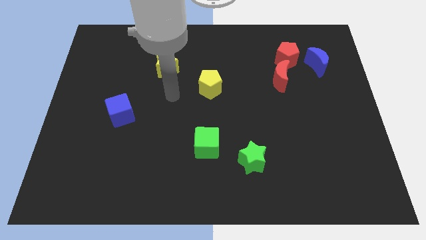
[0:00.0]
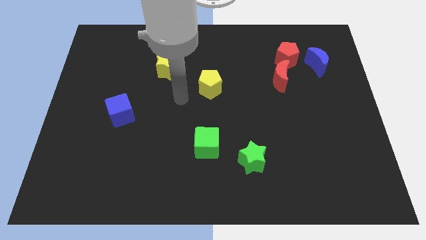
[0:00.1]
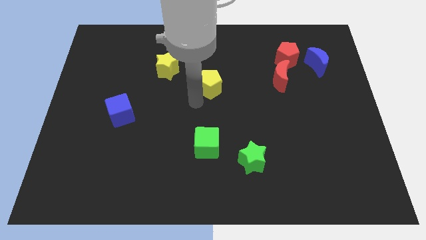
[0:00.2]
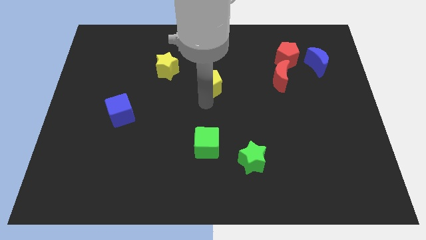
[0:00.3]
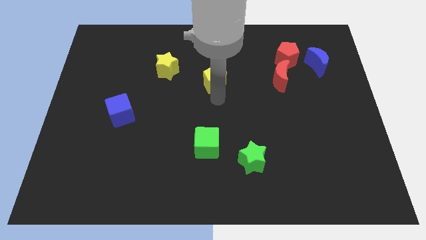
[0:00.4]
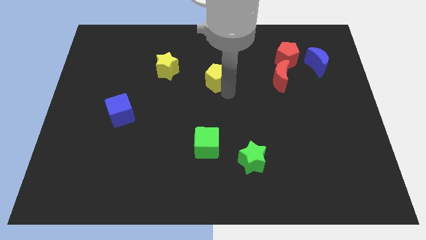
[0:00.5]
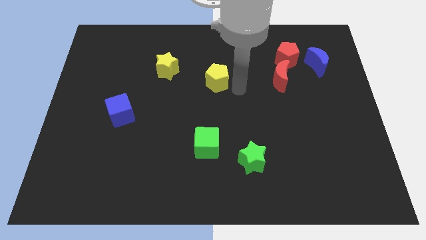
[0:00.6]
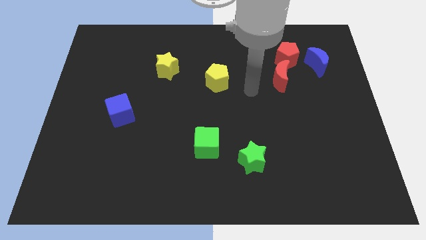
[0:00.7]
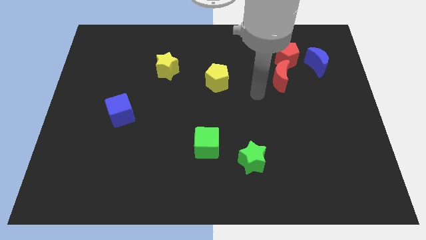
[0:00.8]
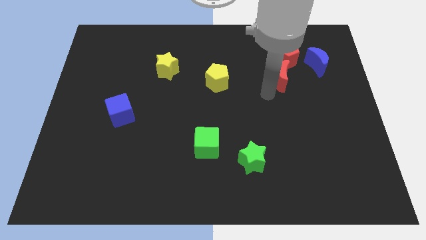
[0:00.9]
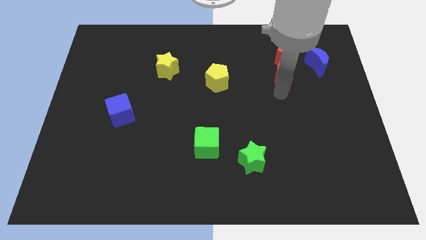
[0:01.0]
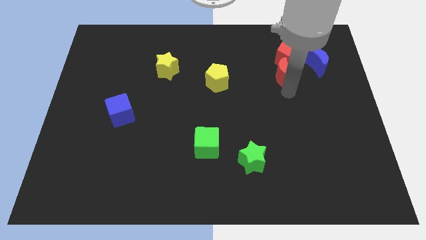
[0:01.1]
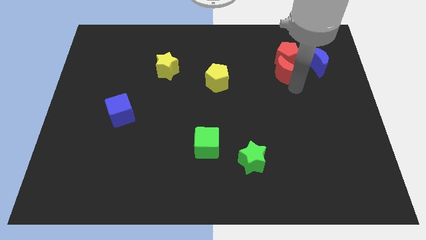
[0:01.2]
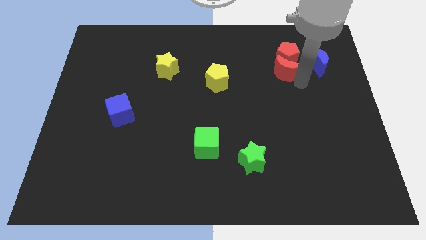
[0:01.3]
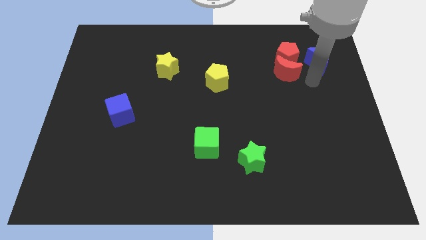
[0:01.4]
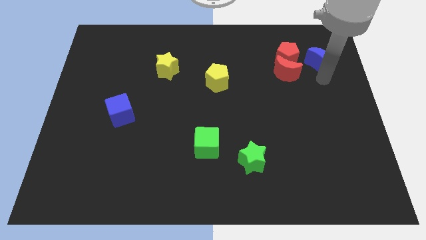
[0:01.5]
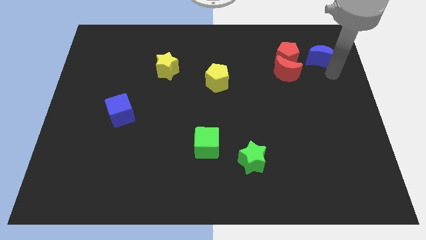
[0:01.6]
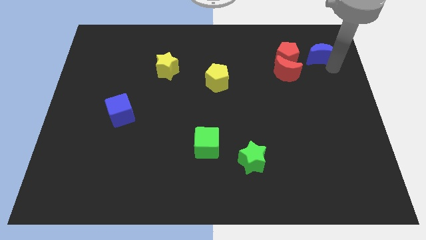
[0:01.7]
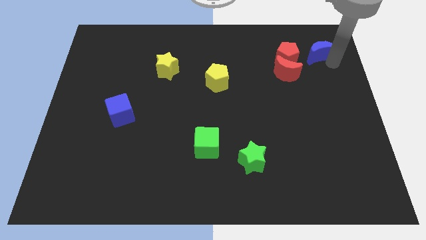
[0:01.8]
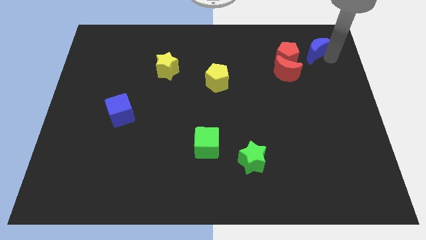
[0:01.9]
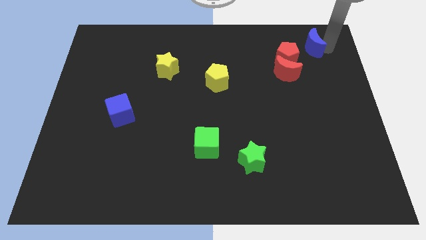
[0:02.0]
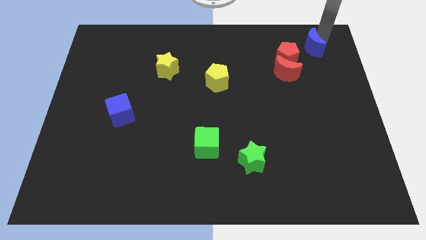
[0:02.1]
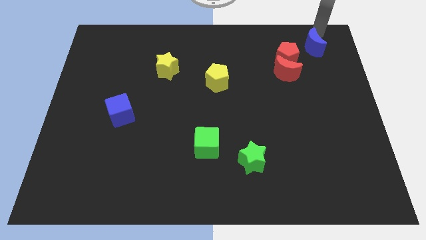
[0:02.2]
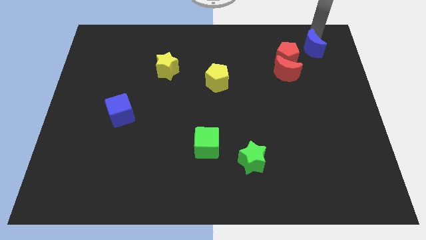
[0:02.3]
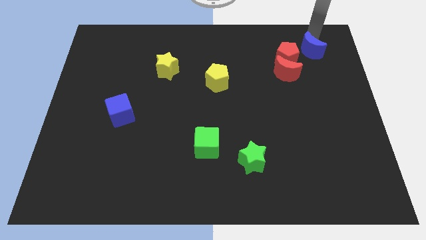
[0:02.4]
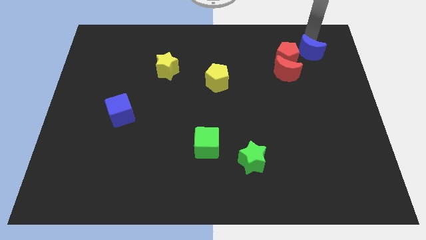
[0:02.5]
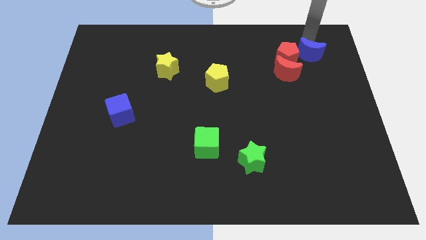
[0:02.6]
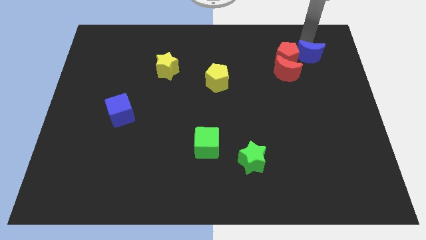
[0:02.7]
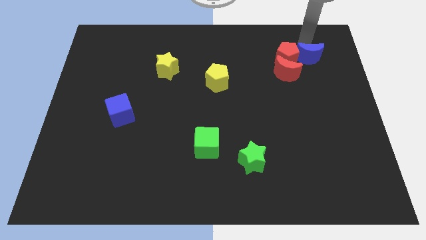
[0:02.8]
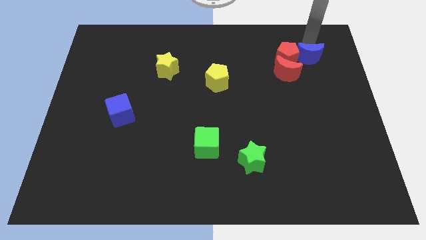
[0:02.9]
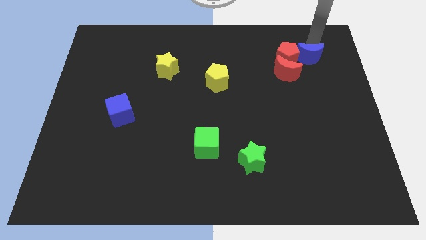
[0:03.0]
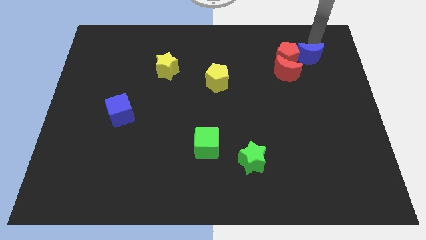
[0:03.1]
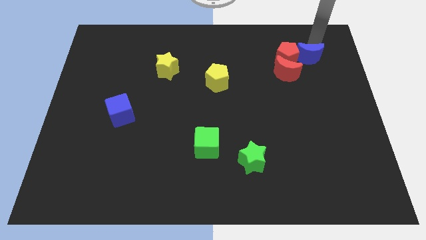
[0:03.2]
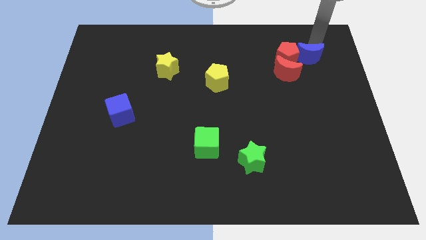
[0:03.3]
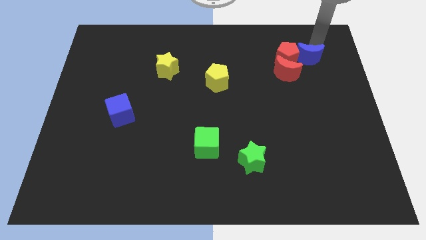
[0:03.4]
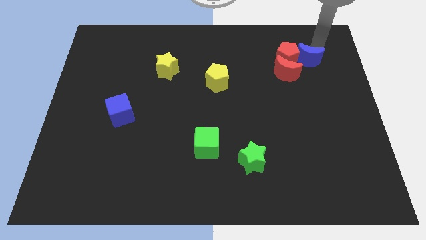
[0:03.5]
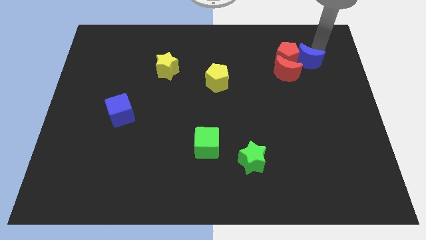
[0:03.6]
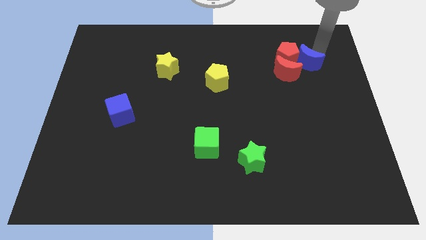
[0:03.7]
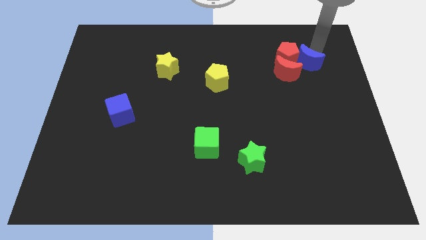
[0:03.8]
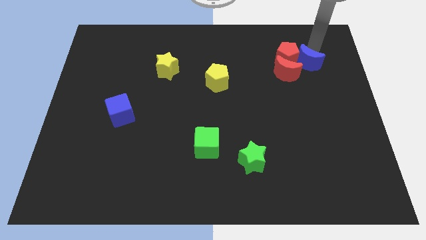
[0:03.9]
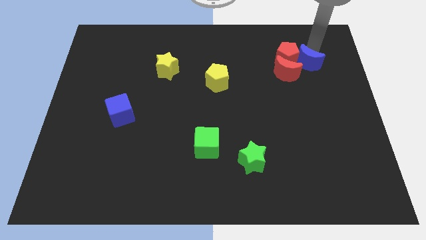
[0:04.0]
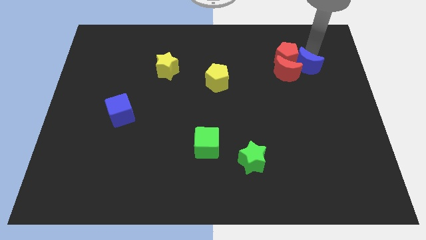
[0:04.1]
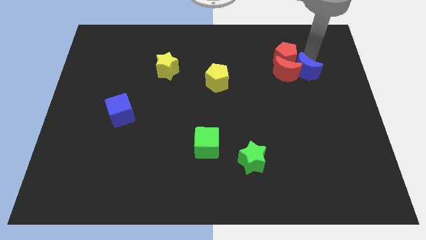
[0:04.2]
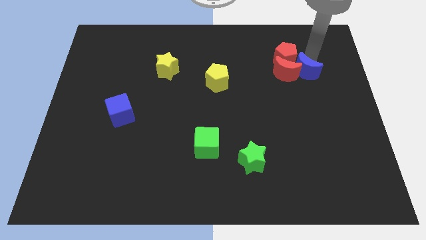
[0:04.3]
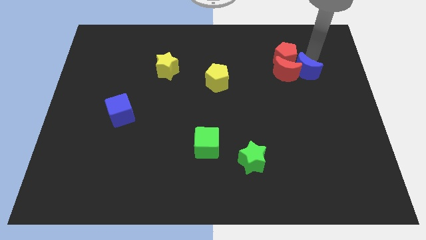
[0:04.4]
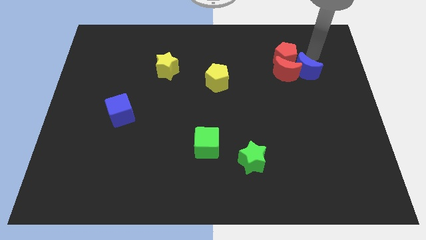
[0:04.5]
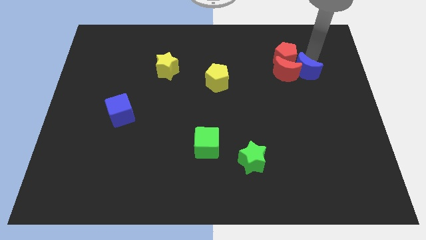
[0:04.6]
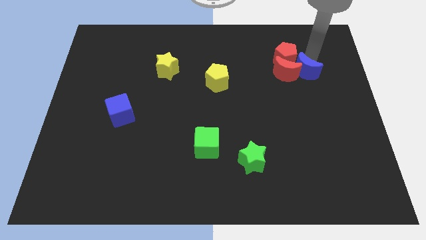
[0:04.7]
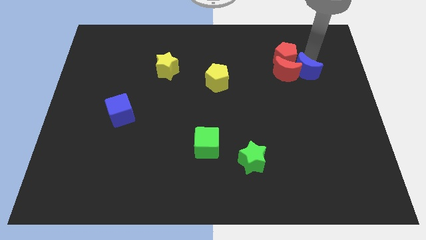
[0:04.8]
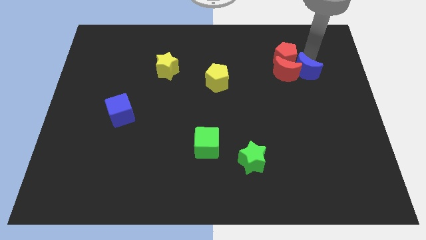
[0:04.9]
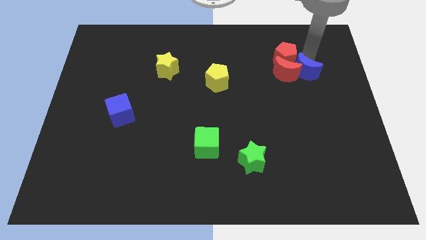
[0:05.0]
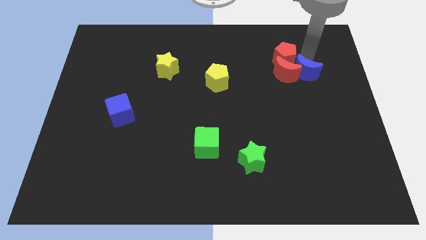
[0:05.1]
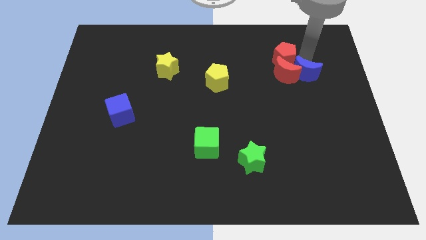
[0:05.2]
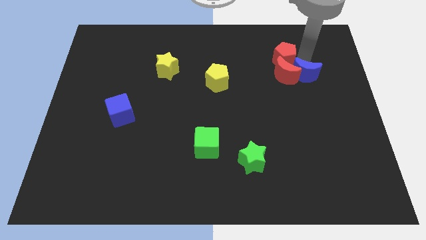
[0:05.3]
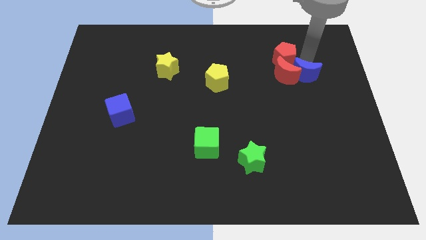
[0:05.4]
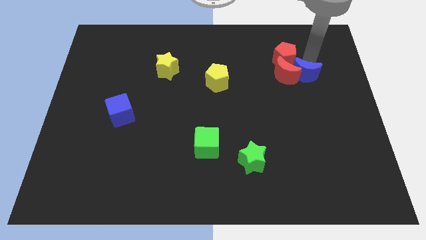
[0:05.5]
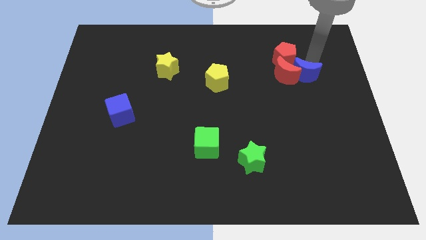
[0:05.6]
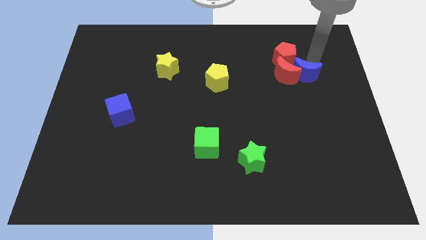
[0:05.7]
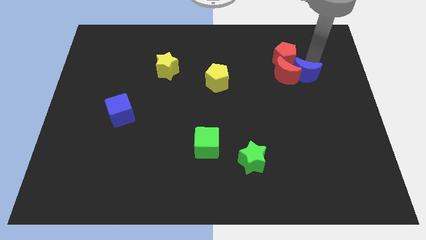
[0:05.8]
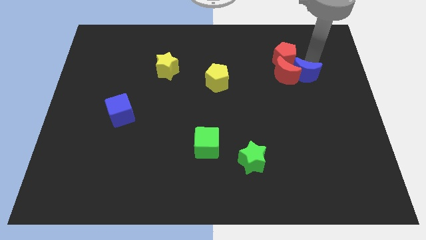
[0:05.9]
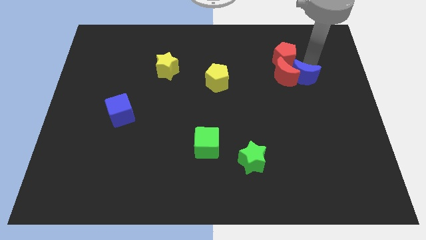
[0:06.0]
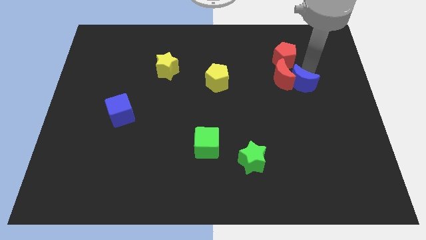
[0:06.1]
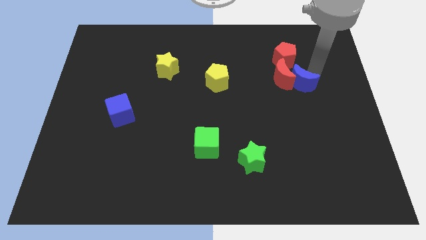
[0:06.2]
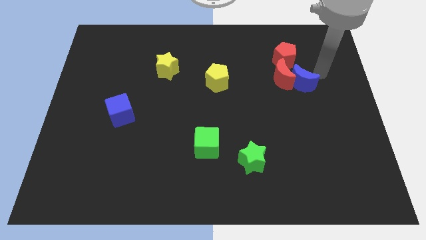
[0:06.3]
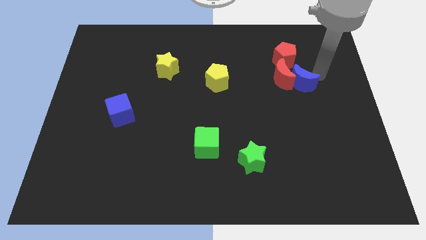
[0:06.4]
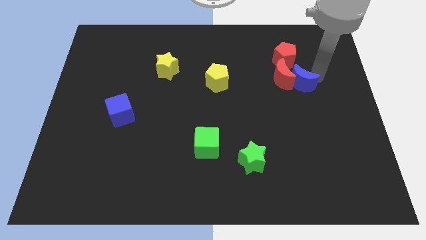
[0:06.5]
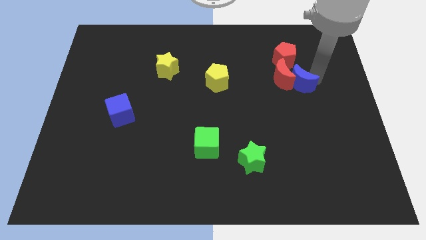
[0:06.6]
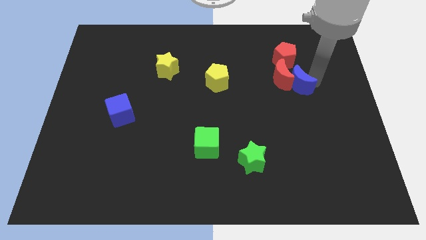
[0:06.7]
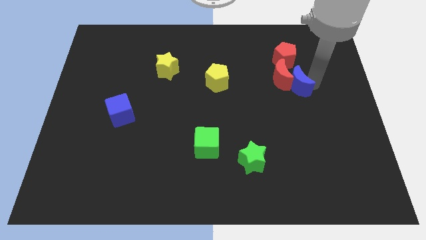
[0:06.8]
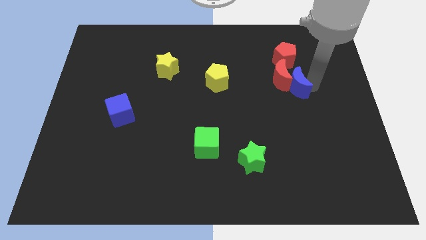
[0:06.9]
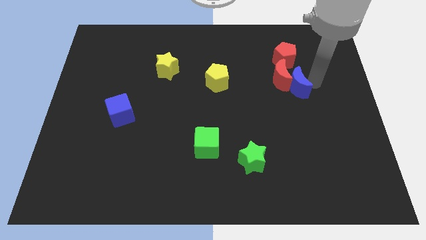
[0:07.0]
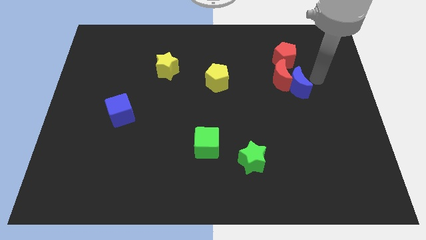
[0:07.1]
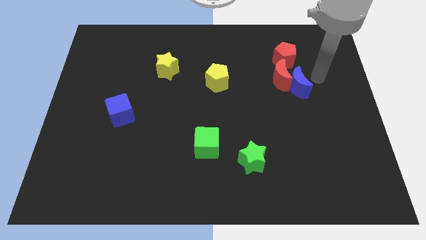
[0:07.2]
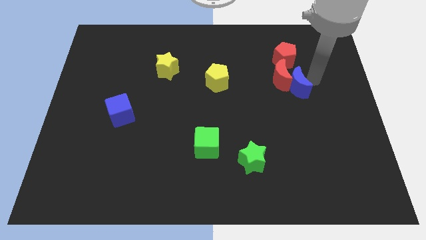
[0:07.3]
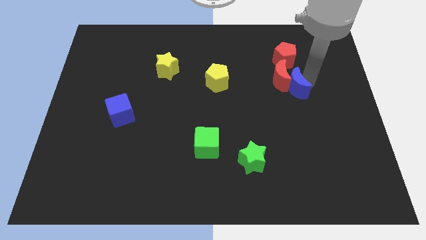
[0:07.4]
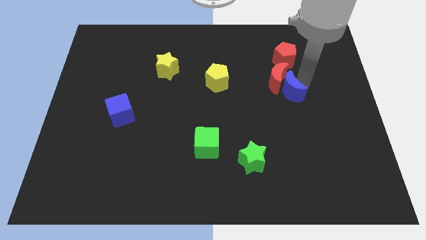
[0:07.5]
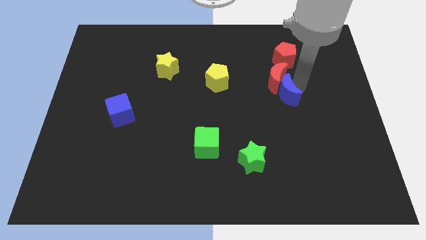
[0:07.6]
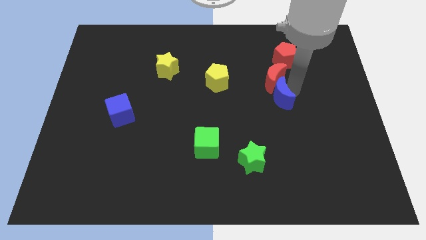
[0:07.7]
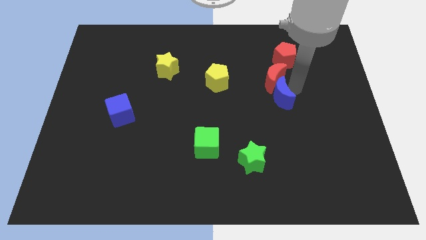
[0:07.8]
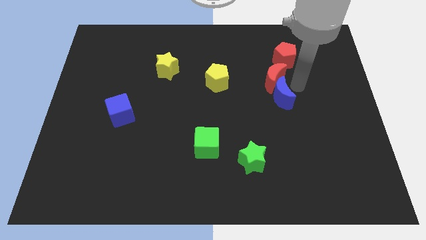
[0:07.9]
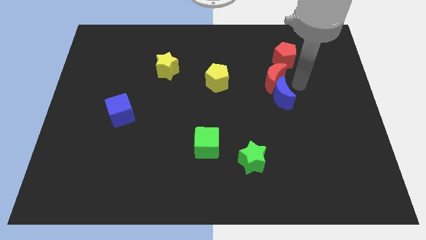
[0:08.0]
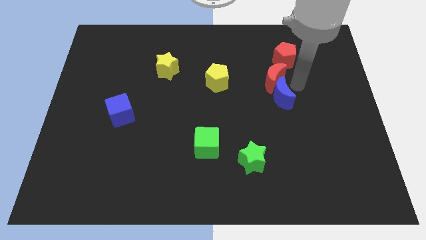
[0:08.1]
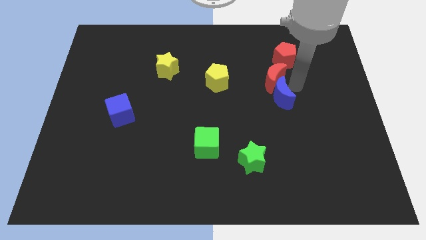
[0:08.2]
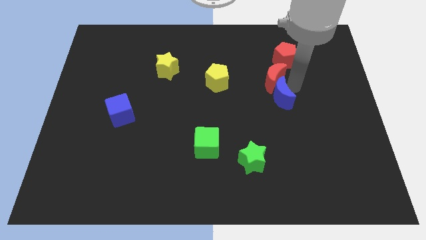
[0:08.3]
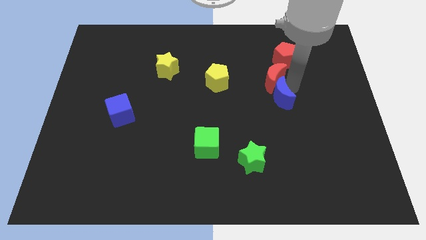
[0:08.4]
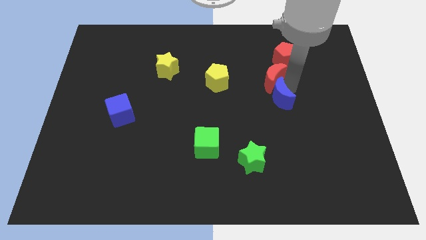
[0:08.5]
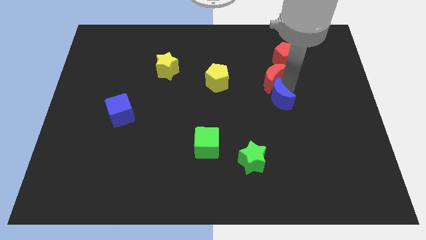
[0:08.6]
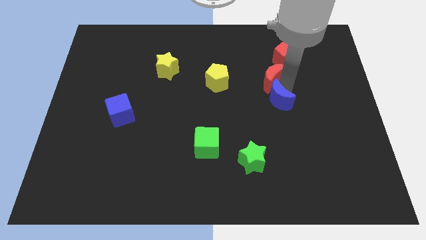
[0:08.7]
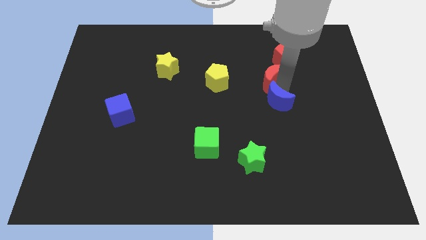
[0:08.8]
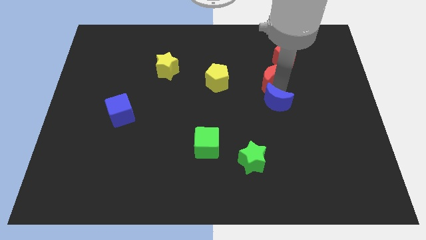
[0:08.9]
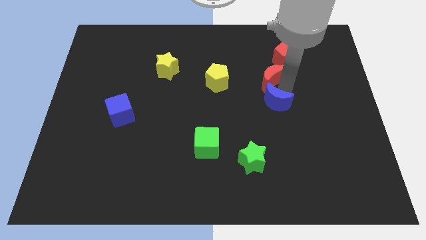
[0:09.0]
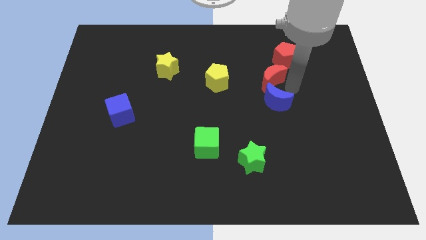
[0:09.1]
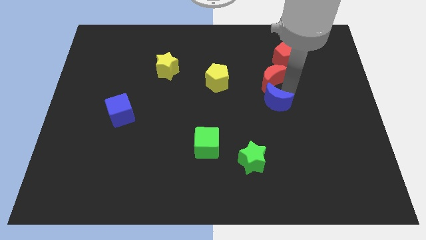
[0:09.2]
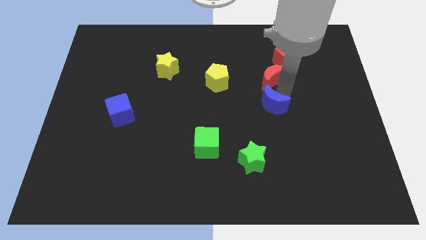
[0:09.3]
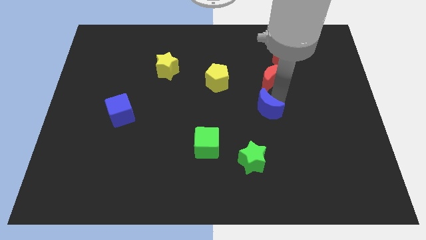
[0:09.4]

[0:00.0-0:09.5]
slide the blue moon downwards and then left
